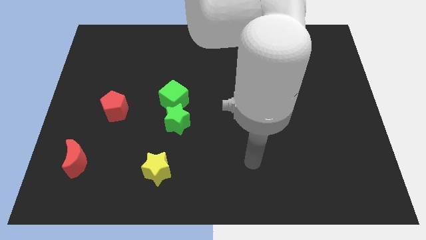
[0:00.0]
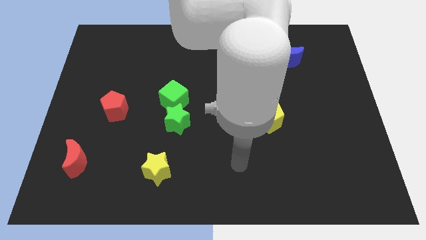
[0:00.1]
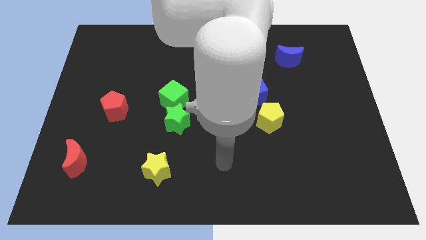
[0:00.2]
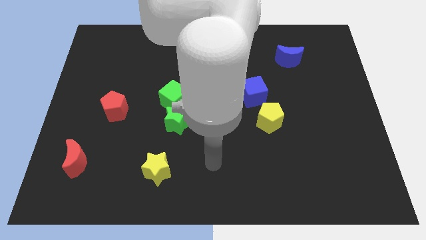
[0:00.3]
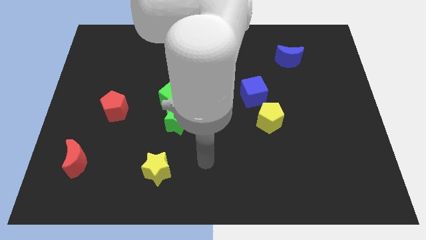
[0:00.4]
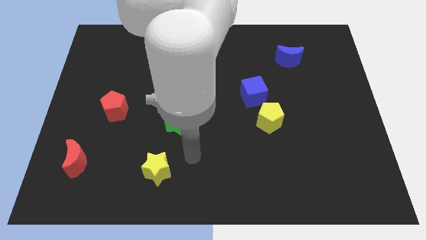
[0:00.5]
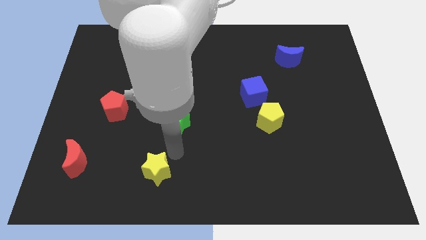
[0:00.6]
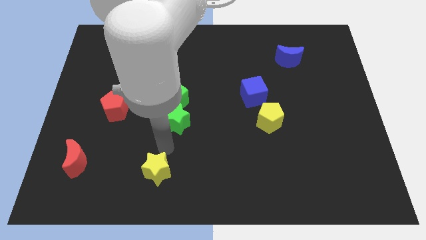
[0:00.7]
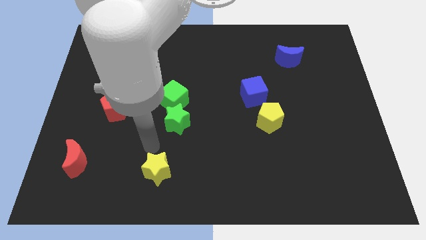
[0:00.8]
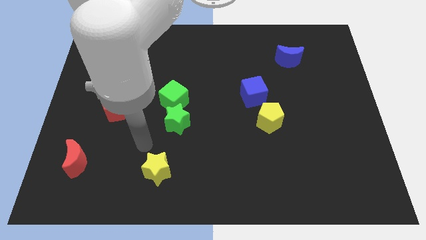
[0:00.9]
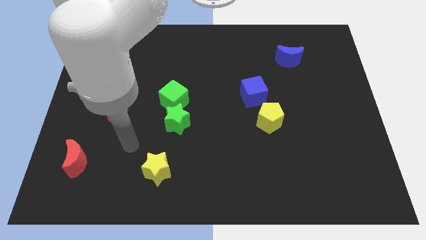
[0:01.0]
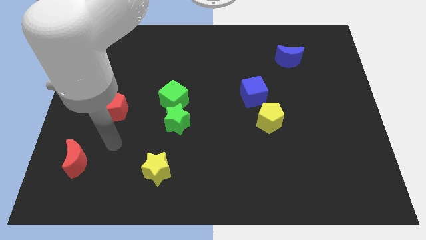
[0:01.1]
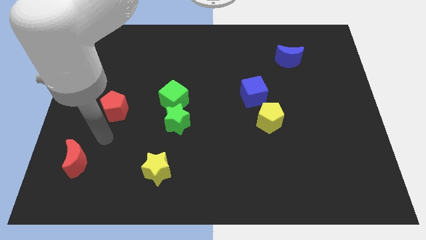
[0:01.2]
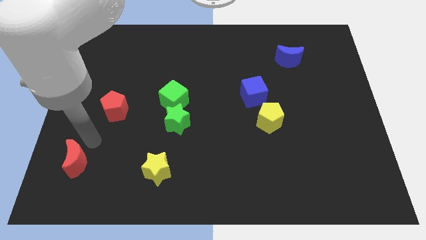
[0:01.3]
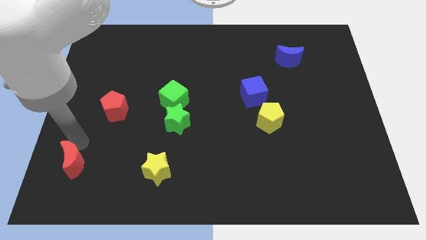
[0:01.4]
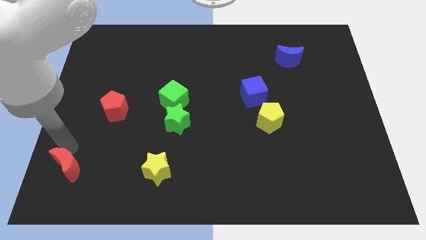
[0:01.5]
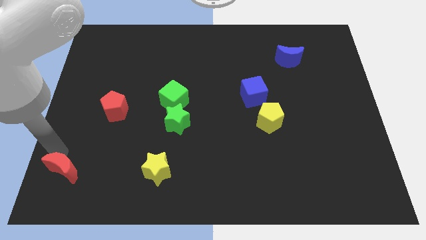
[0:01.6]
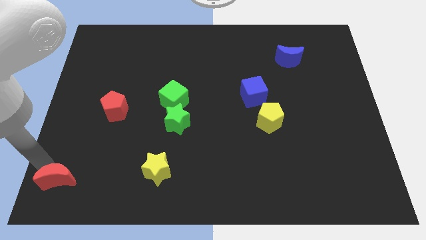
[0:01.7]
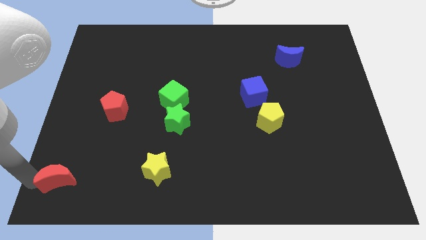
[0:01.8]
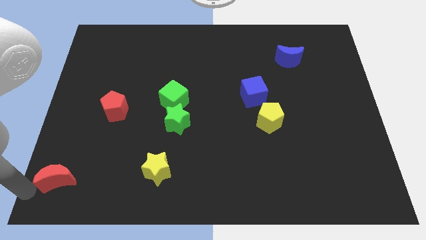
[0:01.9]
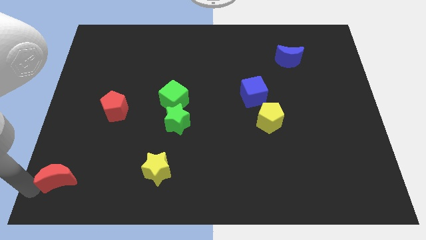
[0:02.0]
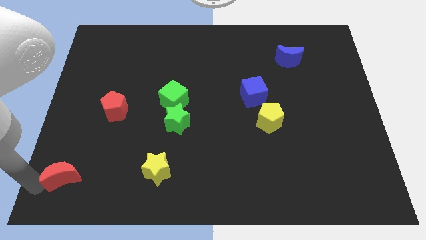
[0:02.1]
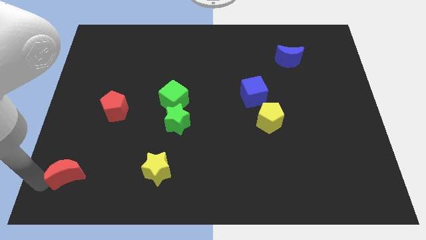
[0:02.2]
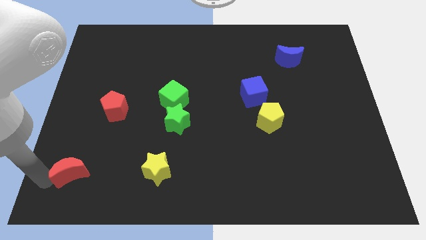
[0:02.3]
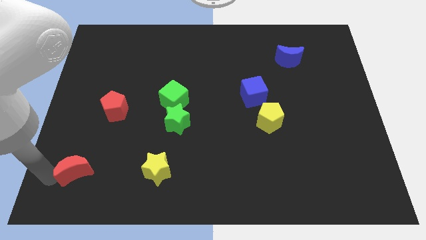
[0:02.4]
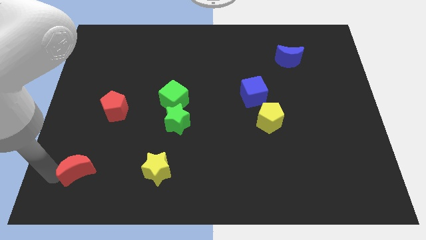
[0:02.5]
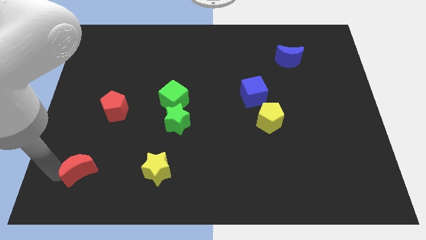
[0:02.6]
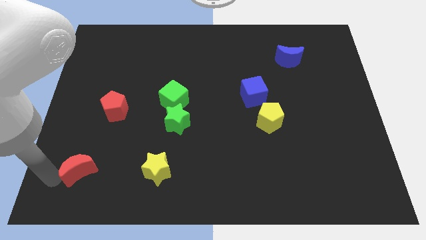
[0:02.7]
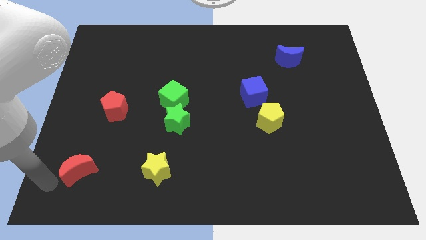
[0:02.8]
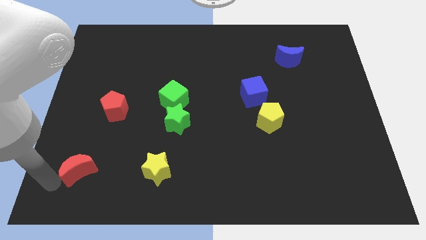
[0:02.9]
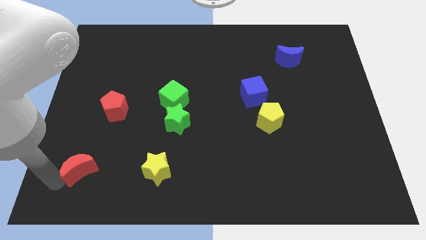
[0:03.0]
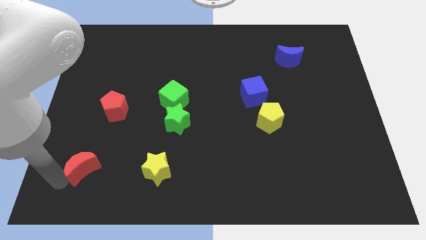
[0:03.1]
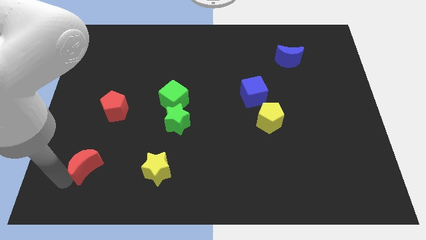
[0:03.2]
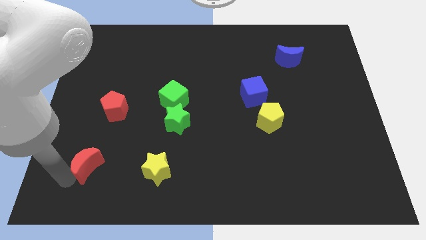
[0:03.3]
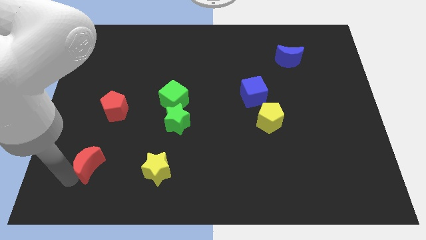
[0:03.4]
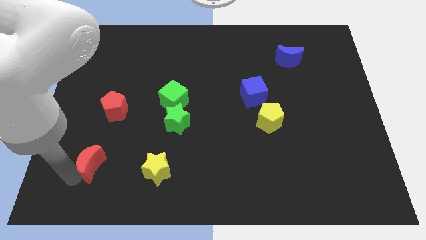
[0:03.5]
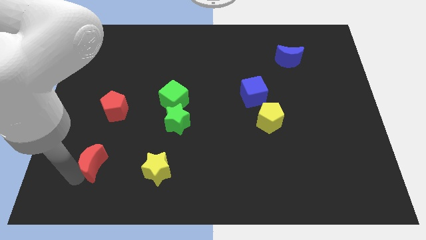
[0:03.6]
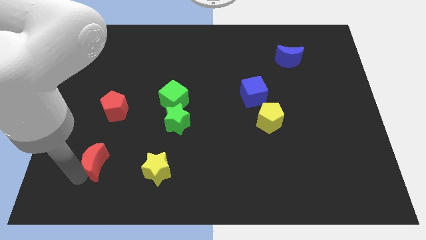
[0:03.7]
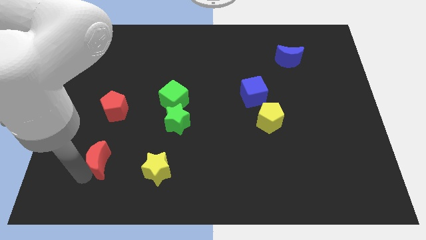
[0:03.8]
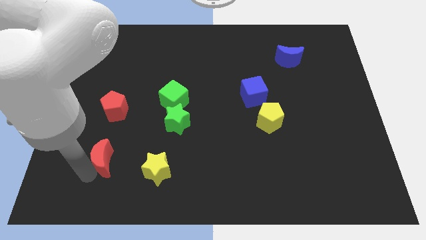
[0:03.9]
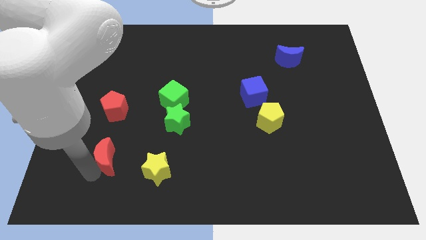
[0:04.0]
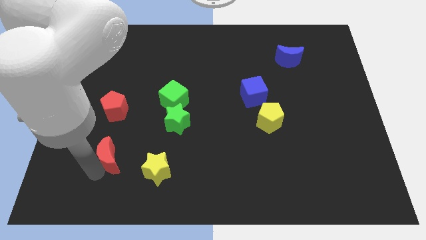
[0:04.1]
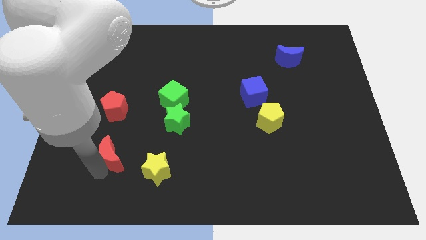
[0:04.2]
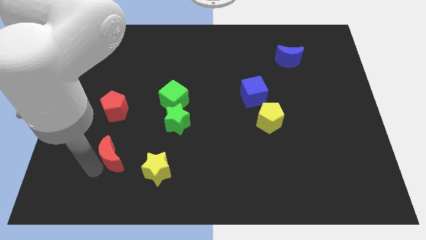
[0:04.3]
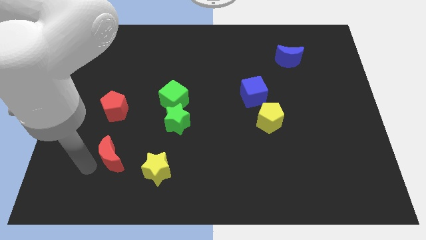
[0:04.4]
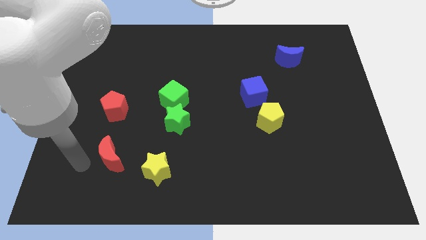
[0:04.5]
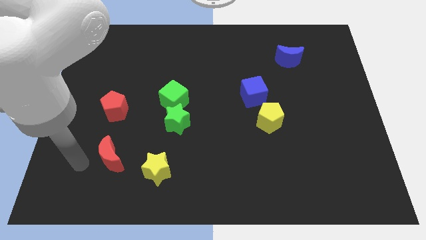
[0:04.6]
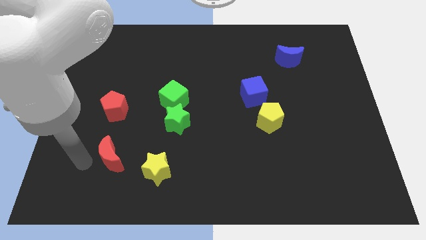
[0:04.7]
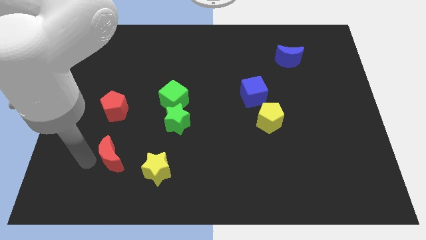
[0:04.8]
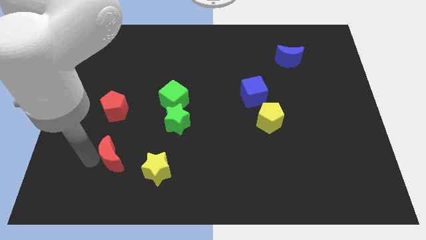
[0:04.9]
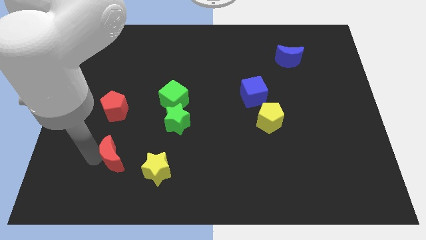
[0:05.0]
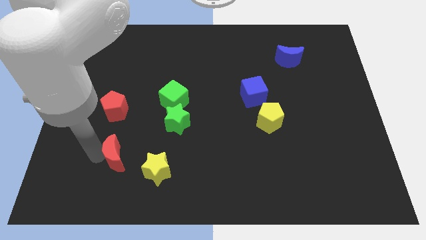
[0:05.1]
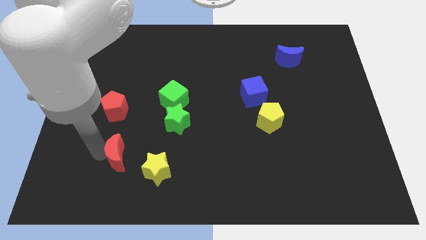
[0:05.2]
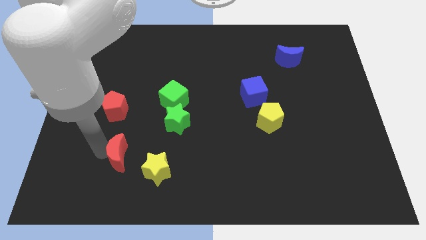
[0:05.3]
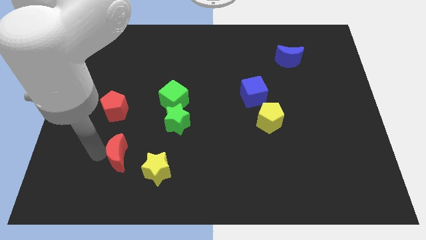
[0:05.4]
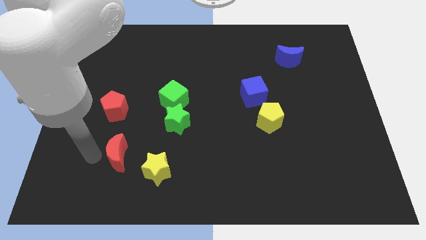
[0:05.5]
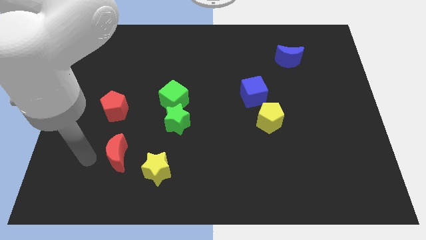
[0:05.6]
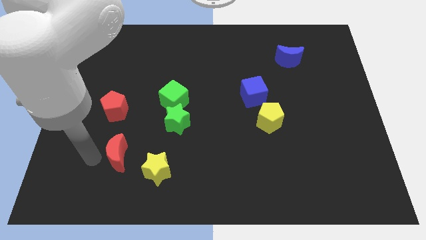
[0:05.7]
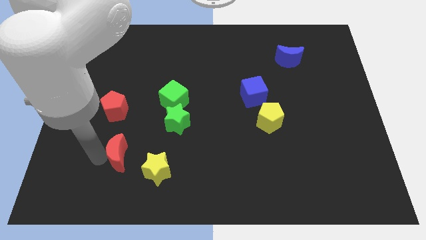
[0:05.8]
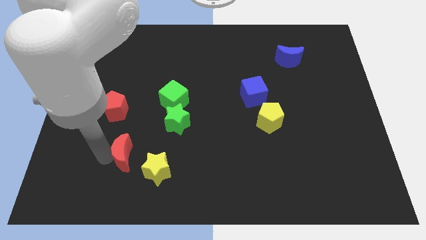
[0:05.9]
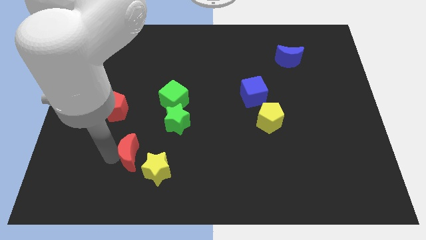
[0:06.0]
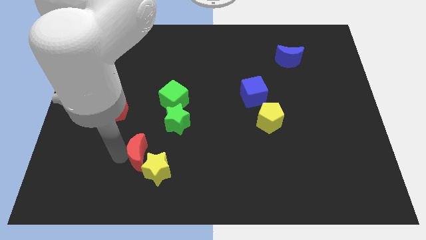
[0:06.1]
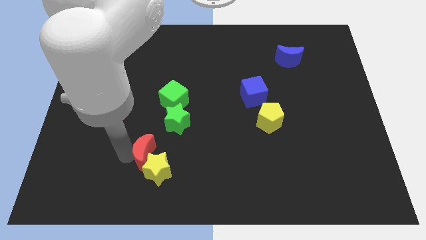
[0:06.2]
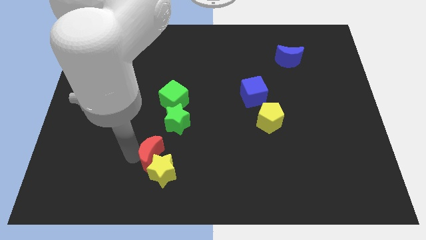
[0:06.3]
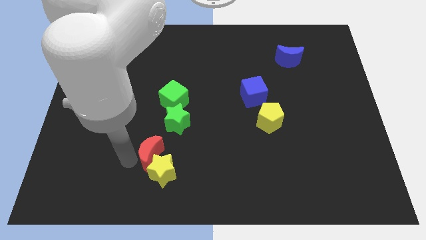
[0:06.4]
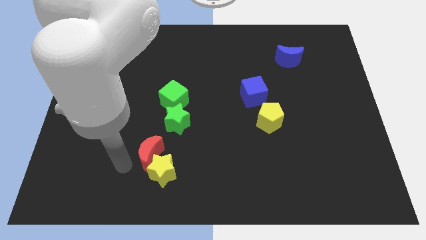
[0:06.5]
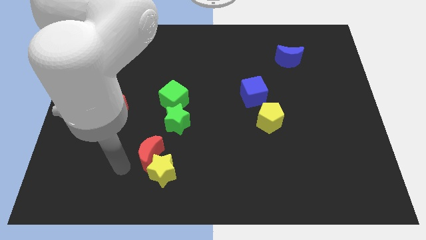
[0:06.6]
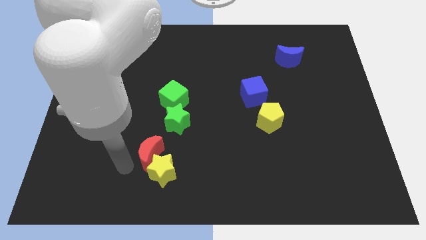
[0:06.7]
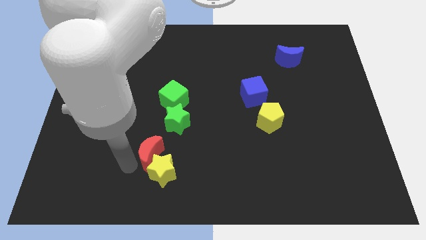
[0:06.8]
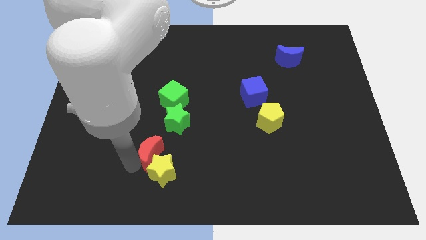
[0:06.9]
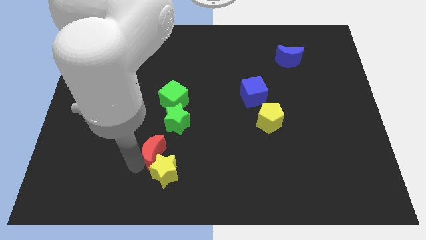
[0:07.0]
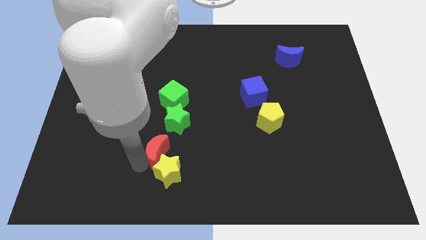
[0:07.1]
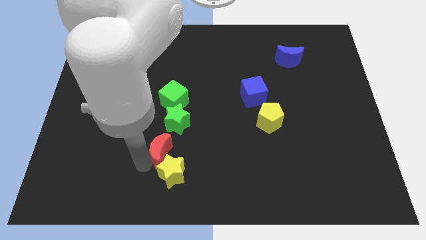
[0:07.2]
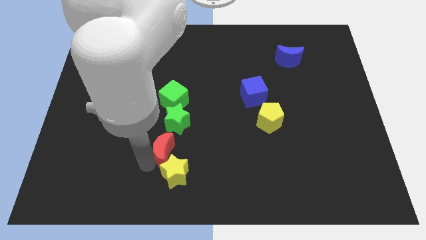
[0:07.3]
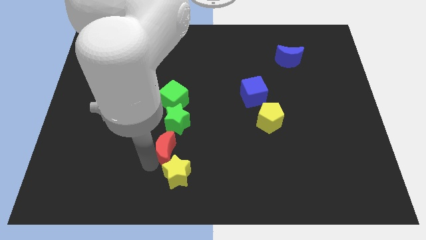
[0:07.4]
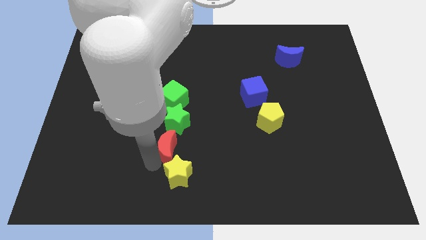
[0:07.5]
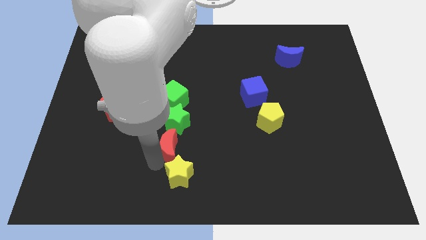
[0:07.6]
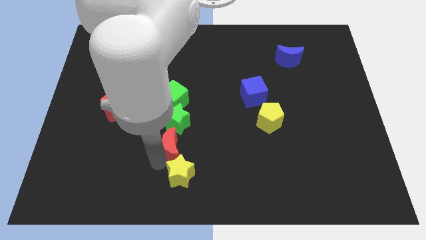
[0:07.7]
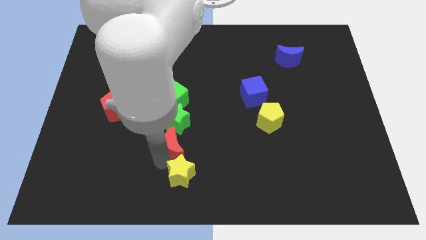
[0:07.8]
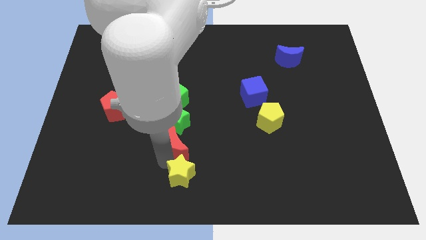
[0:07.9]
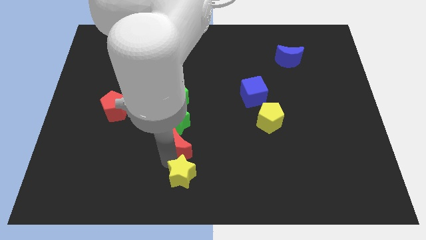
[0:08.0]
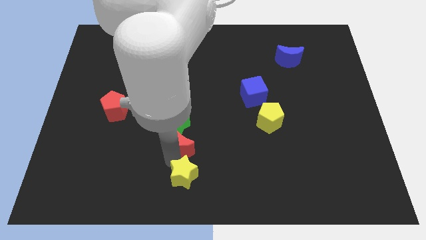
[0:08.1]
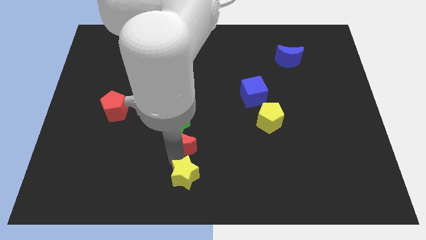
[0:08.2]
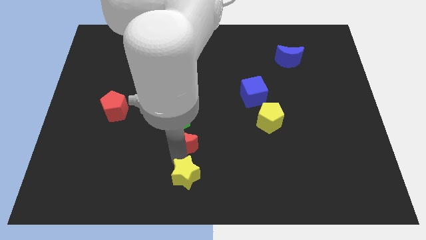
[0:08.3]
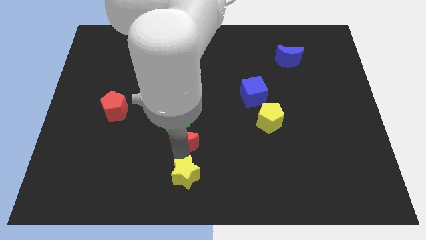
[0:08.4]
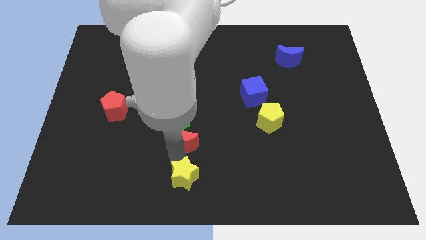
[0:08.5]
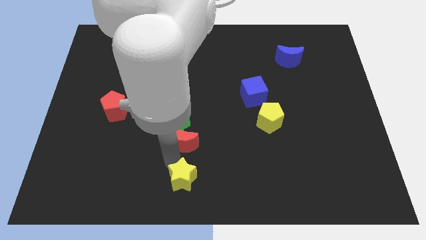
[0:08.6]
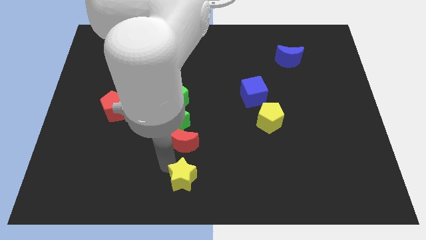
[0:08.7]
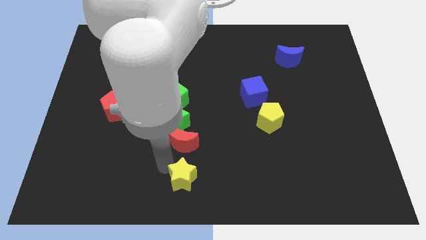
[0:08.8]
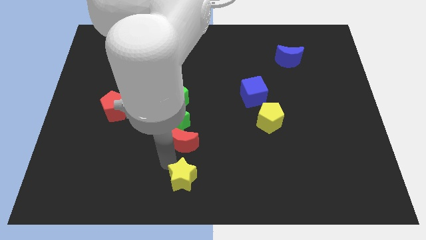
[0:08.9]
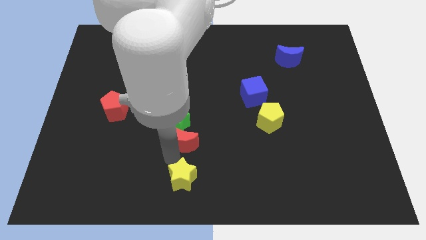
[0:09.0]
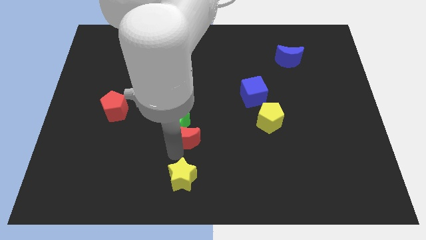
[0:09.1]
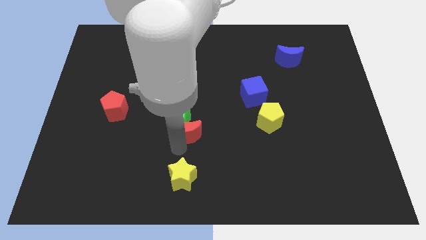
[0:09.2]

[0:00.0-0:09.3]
slide the red moon to the center of the board
